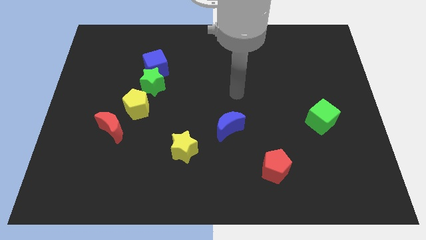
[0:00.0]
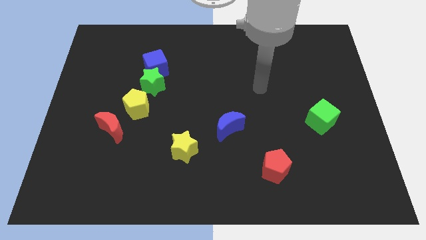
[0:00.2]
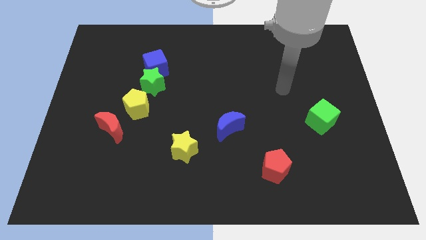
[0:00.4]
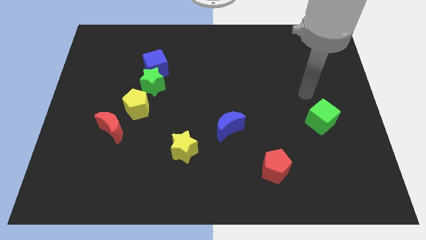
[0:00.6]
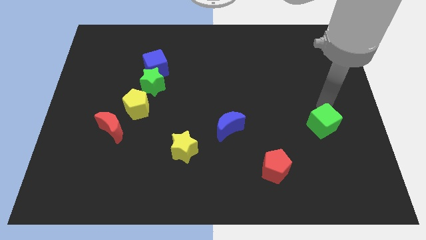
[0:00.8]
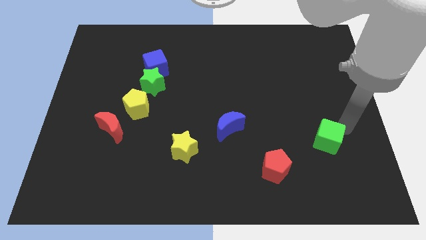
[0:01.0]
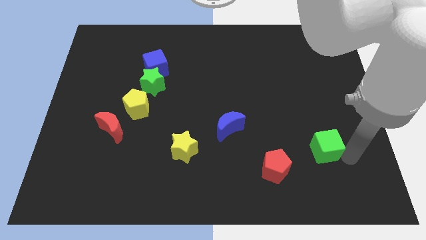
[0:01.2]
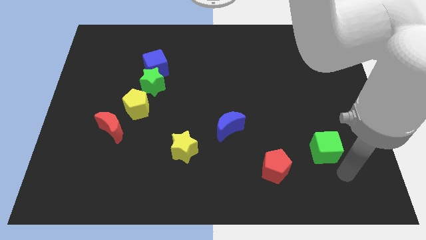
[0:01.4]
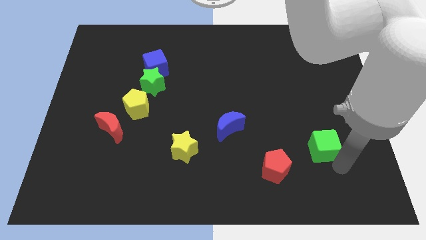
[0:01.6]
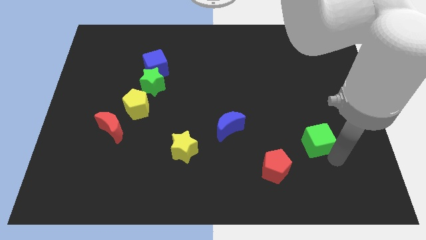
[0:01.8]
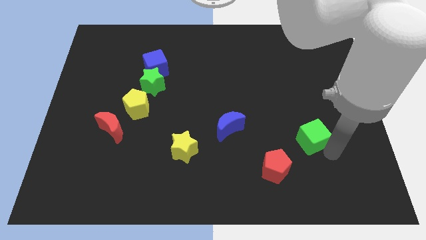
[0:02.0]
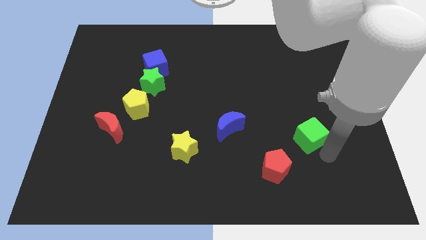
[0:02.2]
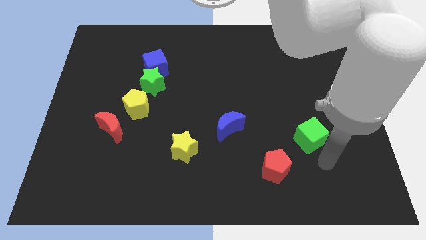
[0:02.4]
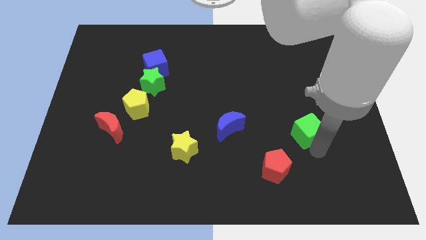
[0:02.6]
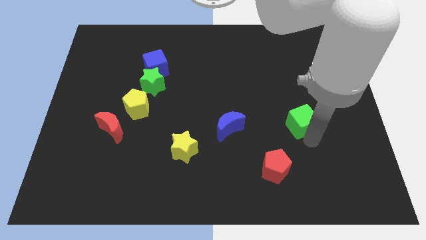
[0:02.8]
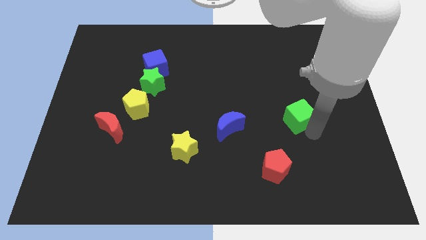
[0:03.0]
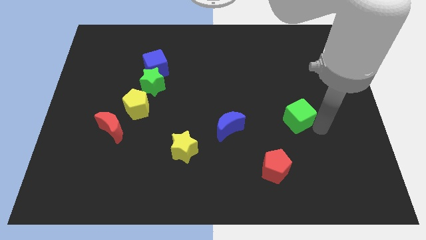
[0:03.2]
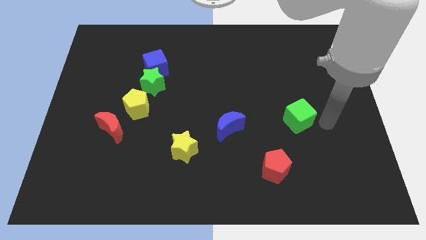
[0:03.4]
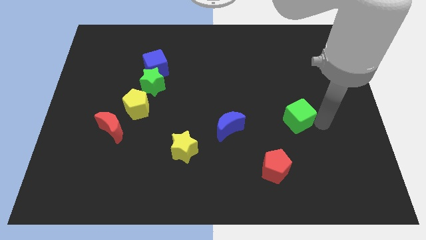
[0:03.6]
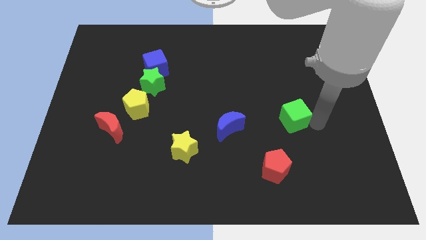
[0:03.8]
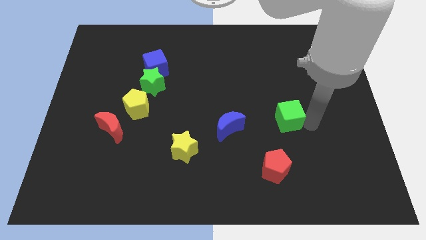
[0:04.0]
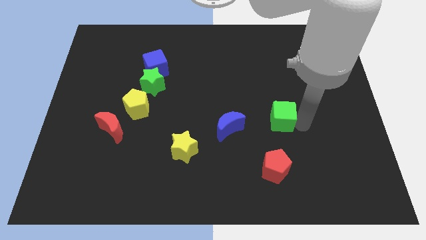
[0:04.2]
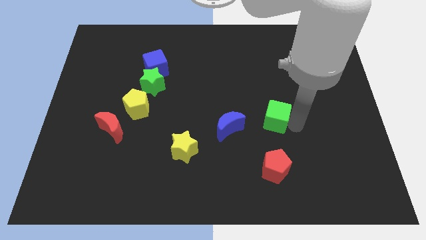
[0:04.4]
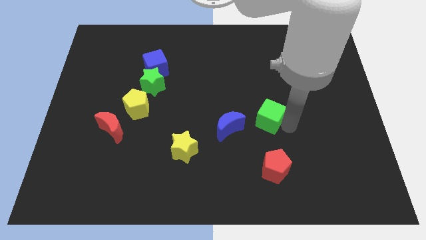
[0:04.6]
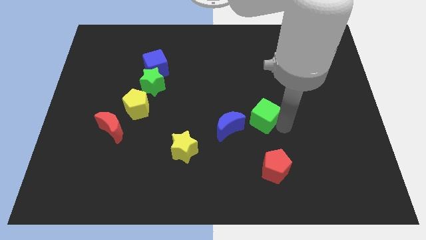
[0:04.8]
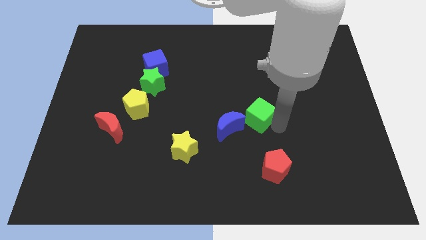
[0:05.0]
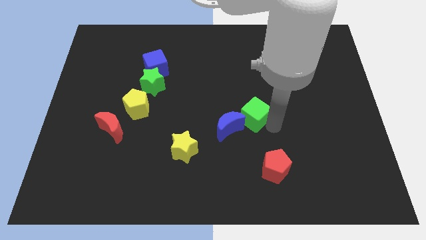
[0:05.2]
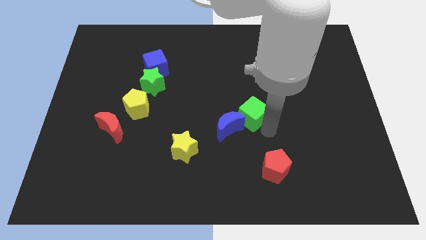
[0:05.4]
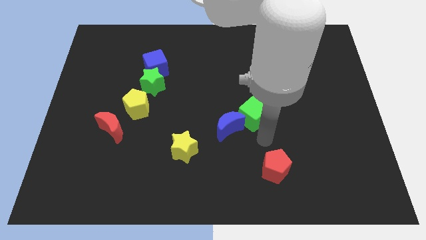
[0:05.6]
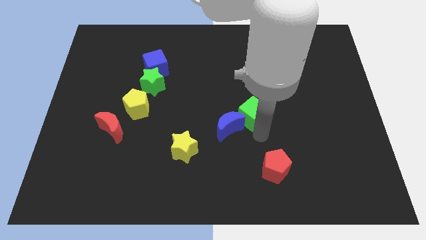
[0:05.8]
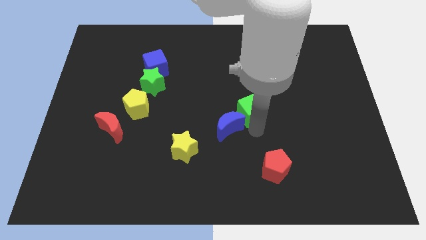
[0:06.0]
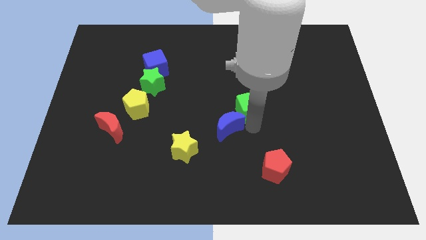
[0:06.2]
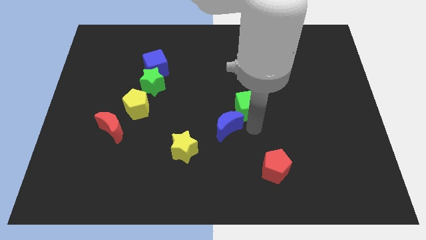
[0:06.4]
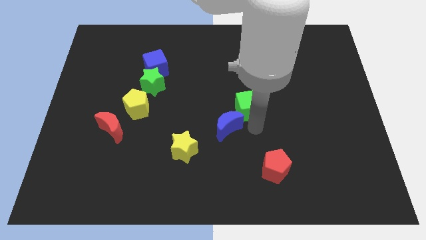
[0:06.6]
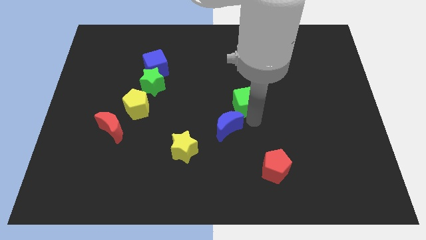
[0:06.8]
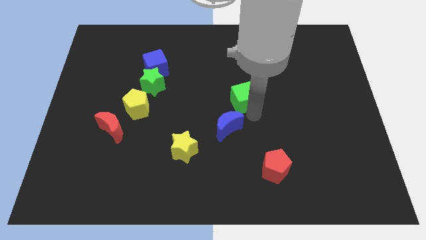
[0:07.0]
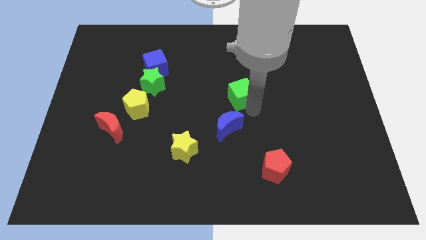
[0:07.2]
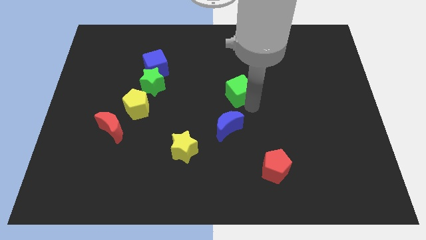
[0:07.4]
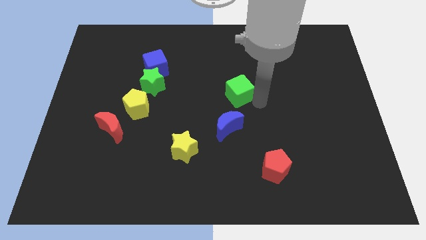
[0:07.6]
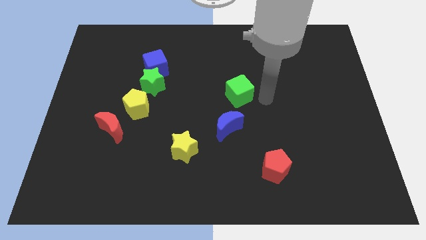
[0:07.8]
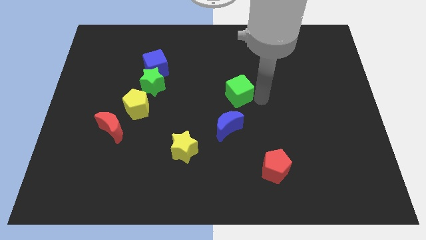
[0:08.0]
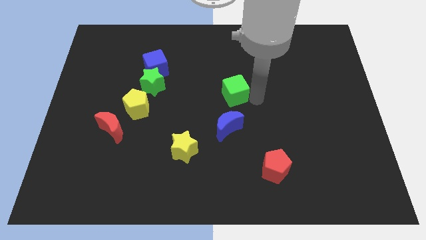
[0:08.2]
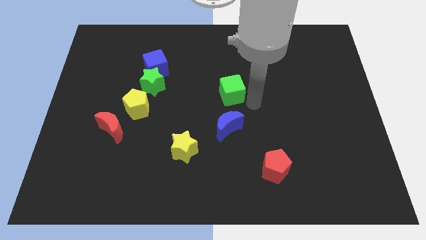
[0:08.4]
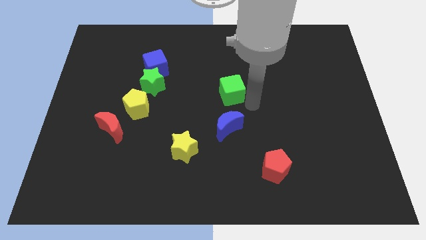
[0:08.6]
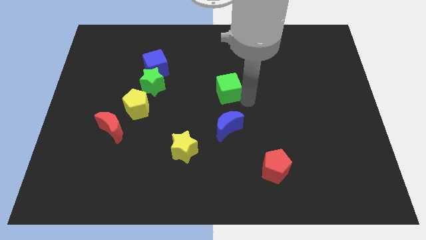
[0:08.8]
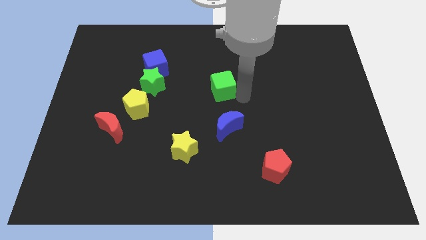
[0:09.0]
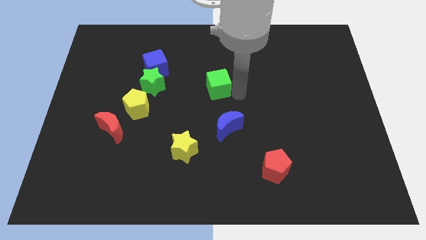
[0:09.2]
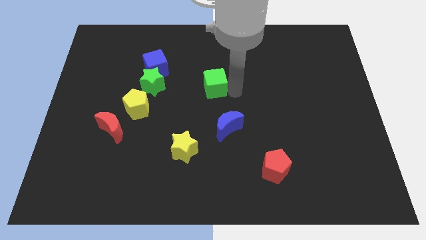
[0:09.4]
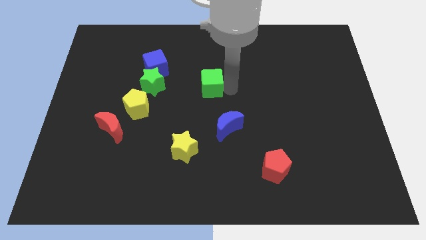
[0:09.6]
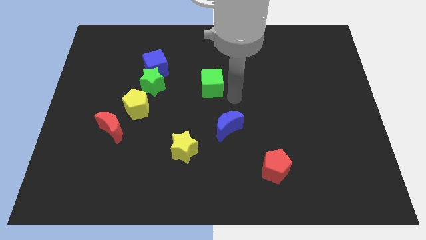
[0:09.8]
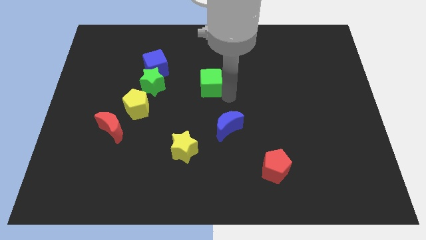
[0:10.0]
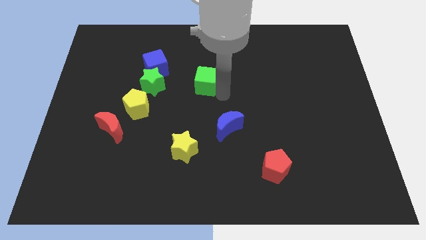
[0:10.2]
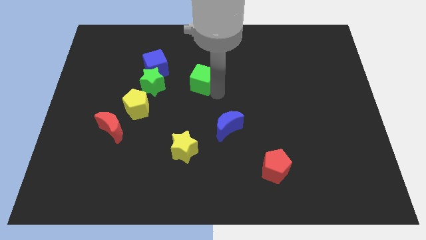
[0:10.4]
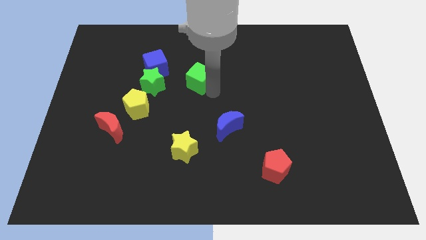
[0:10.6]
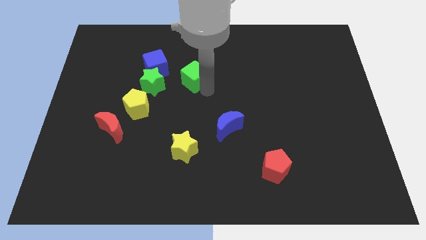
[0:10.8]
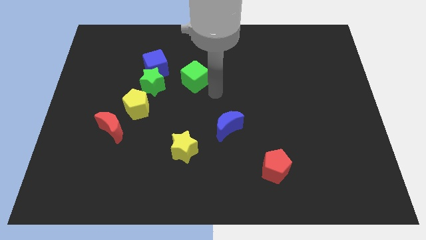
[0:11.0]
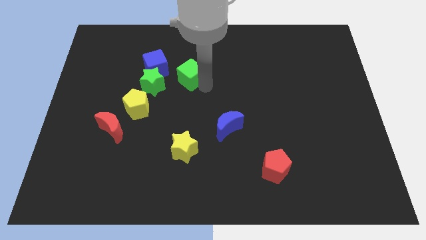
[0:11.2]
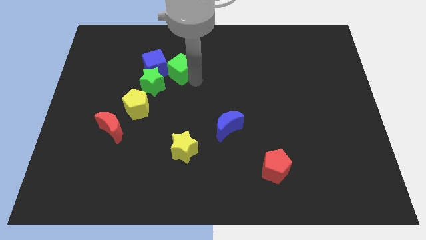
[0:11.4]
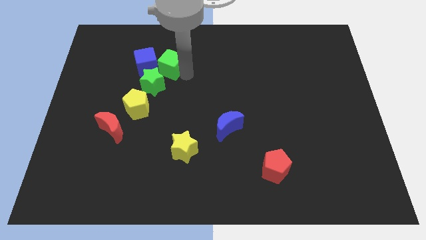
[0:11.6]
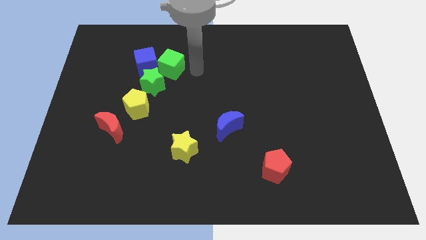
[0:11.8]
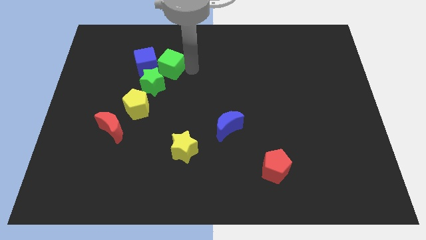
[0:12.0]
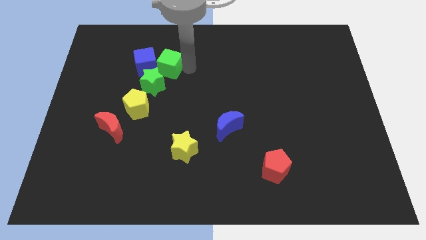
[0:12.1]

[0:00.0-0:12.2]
push the green cube close to the blue cube
